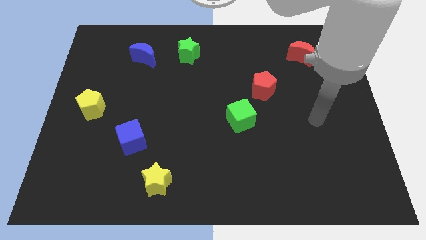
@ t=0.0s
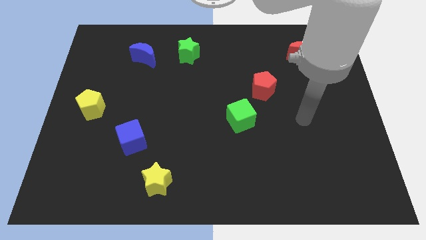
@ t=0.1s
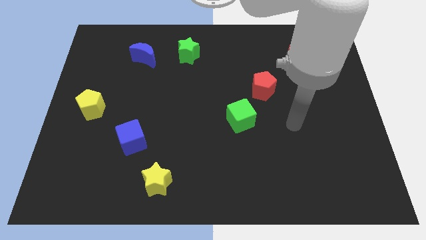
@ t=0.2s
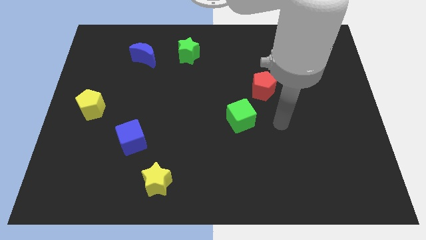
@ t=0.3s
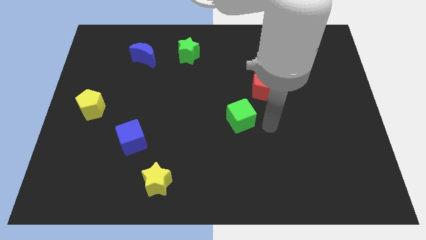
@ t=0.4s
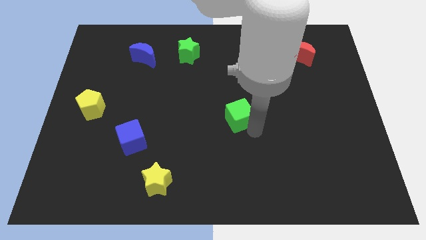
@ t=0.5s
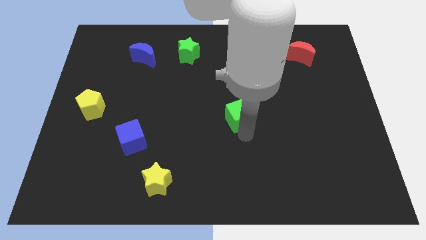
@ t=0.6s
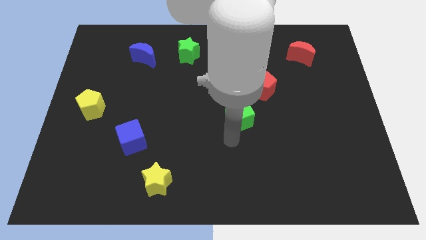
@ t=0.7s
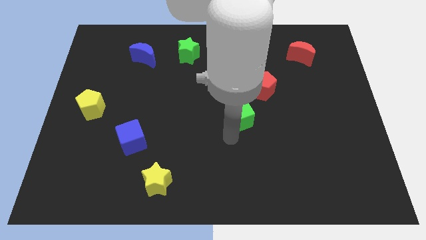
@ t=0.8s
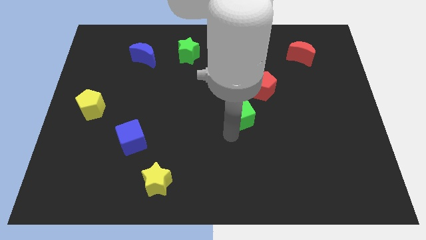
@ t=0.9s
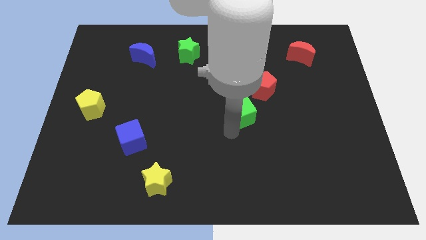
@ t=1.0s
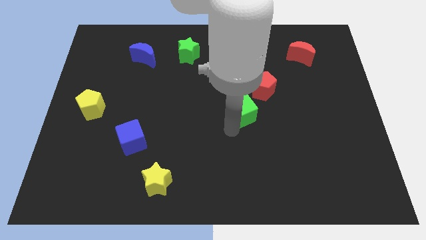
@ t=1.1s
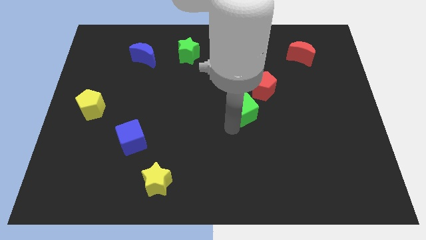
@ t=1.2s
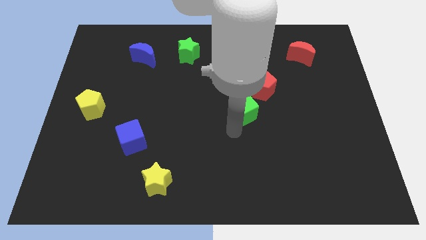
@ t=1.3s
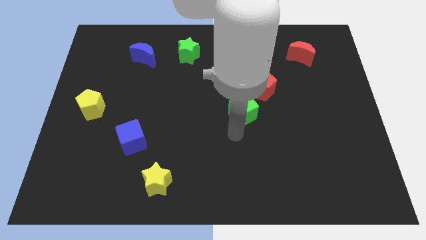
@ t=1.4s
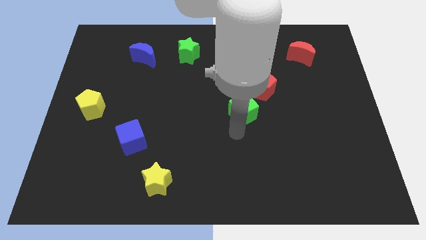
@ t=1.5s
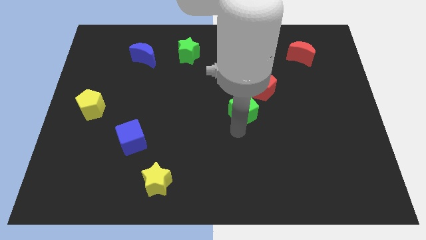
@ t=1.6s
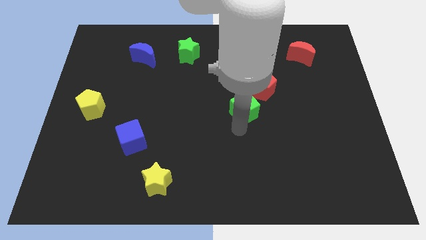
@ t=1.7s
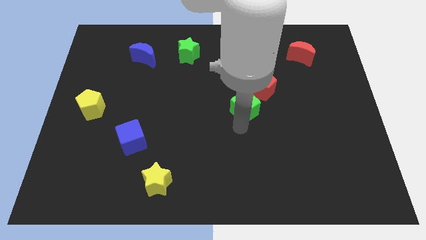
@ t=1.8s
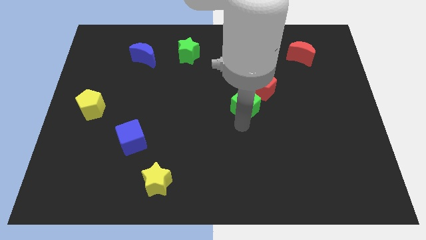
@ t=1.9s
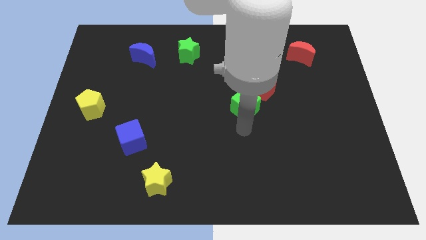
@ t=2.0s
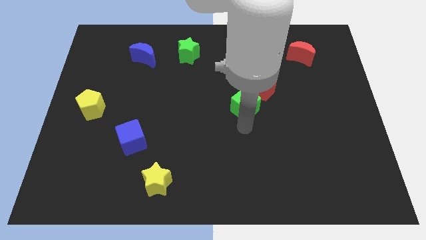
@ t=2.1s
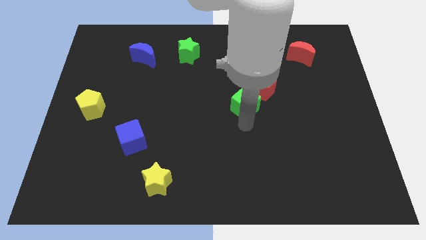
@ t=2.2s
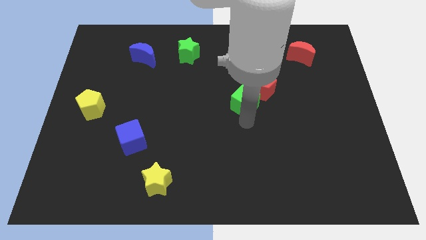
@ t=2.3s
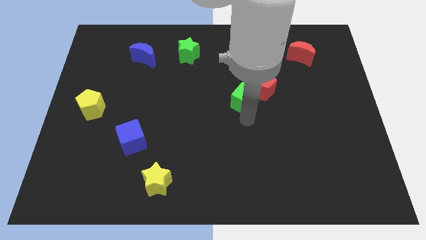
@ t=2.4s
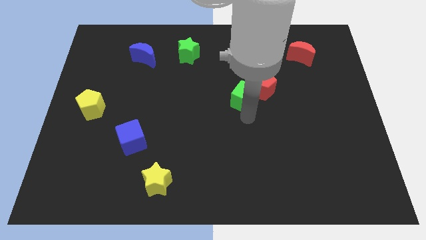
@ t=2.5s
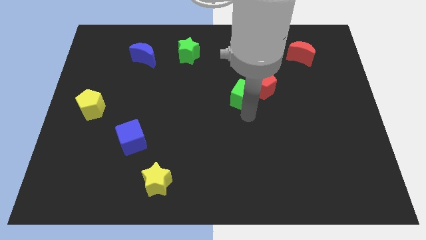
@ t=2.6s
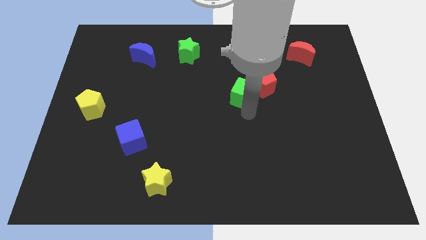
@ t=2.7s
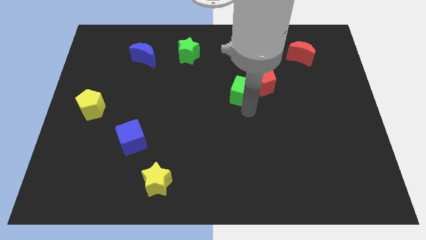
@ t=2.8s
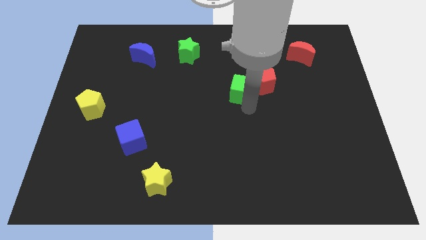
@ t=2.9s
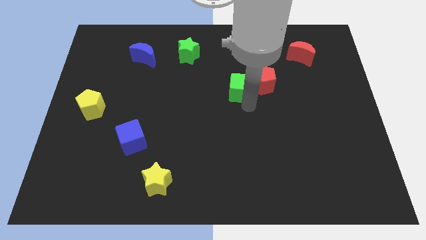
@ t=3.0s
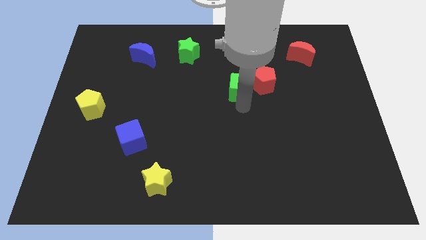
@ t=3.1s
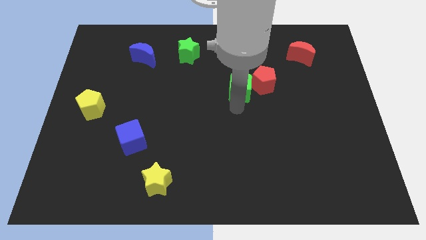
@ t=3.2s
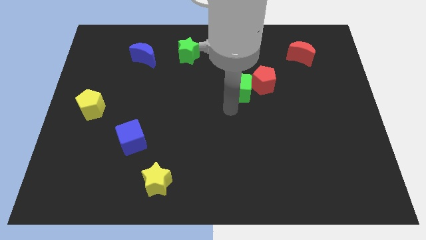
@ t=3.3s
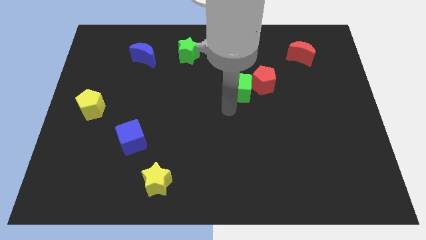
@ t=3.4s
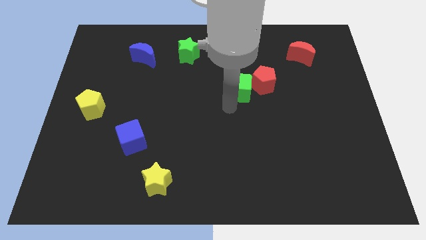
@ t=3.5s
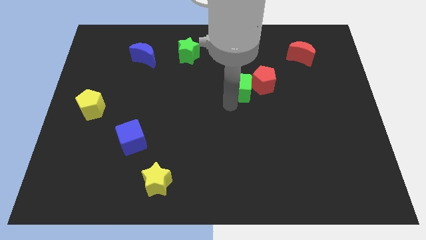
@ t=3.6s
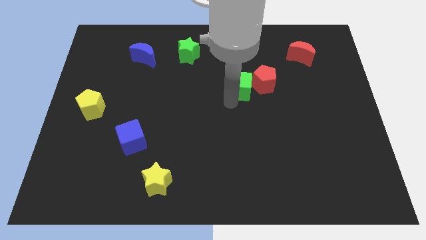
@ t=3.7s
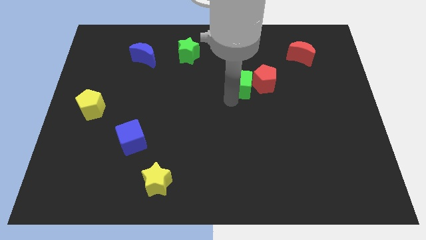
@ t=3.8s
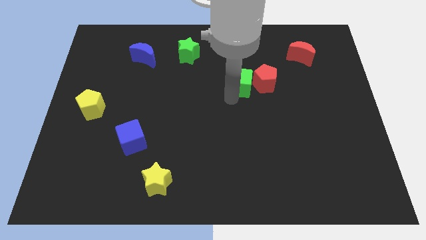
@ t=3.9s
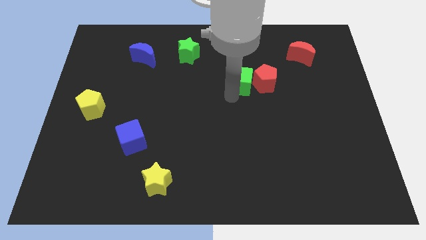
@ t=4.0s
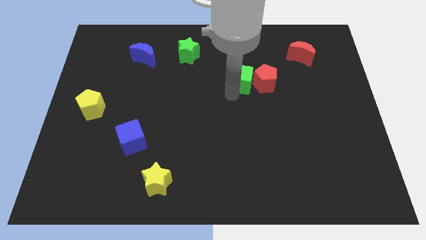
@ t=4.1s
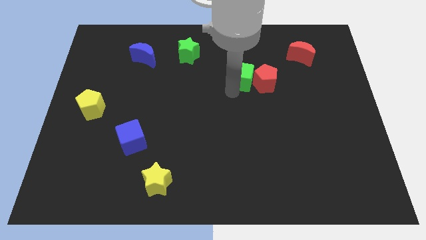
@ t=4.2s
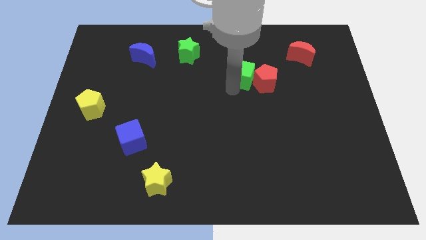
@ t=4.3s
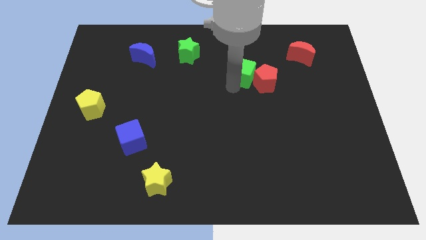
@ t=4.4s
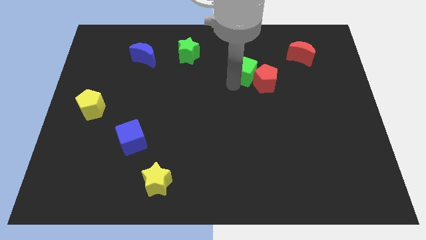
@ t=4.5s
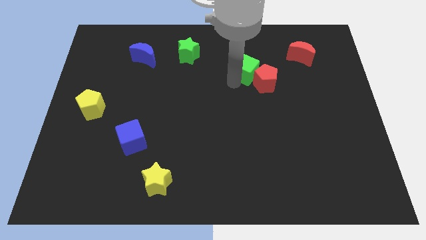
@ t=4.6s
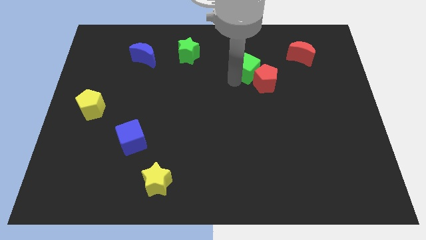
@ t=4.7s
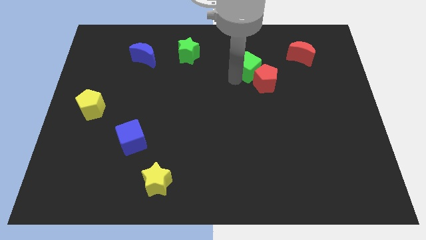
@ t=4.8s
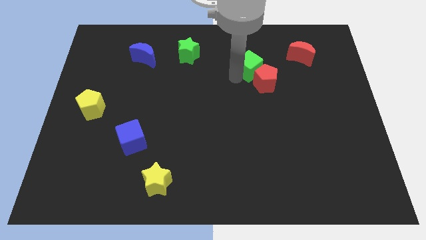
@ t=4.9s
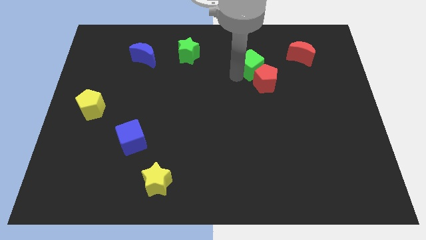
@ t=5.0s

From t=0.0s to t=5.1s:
slide the green cube just left of the red moon
